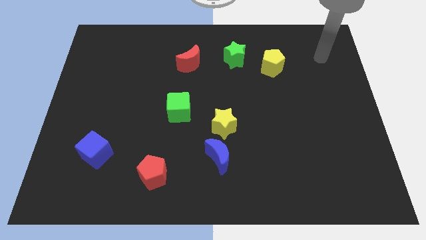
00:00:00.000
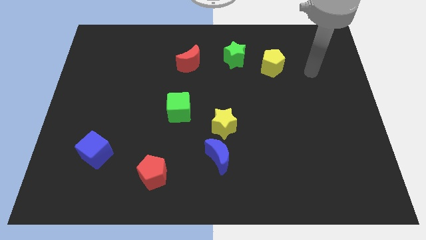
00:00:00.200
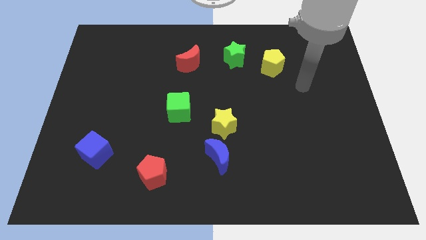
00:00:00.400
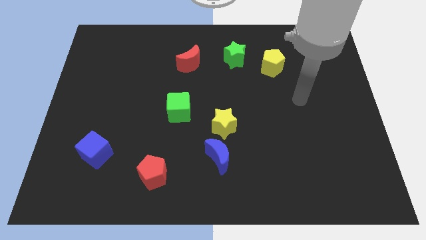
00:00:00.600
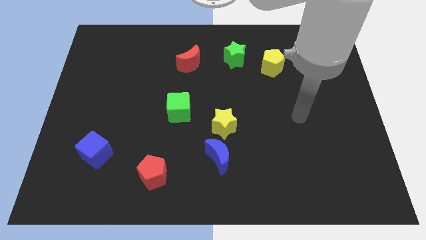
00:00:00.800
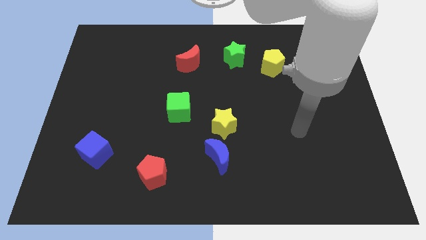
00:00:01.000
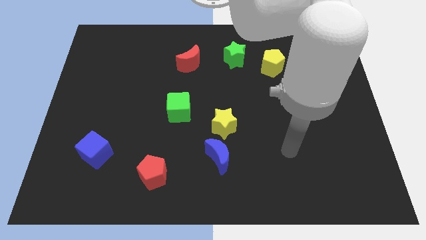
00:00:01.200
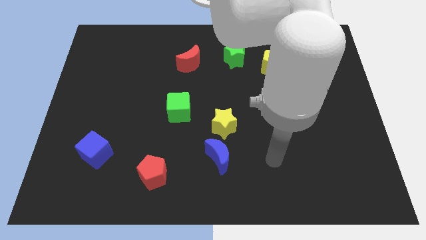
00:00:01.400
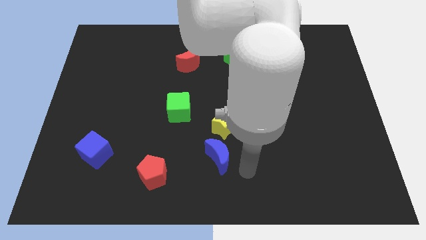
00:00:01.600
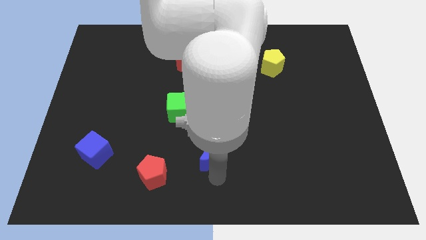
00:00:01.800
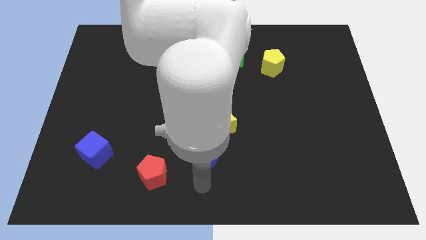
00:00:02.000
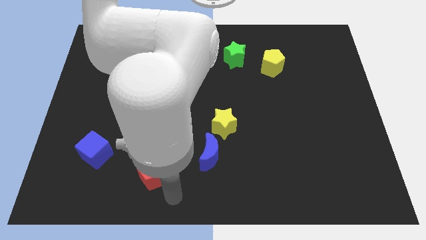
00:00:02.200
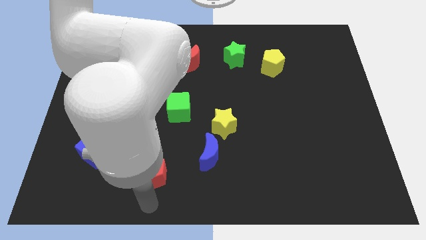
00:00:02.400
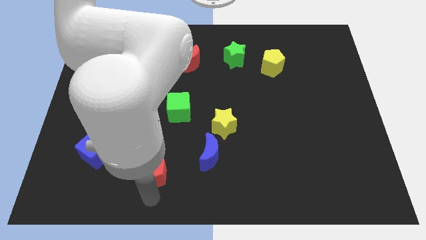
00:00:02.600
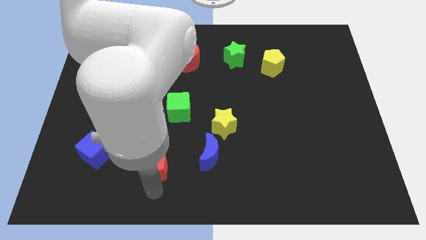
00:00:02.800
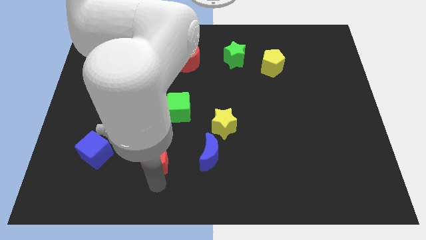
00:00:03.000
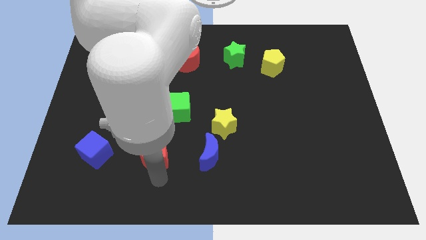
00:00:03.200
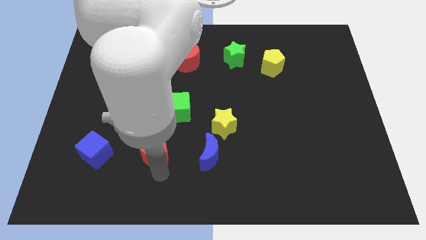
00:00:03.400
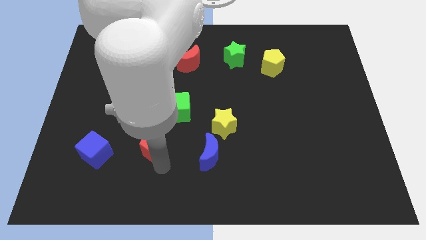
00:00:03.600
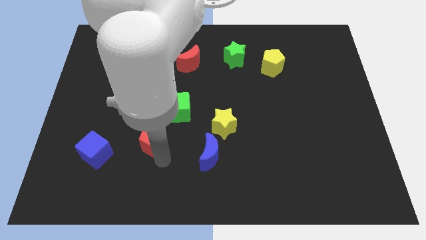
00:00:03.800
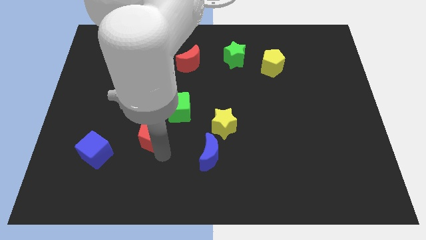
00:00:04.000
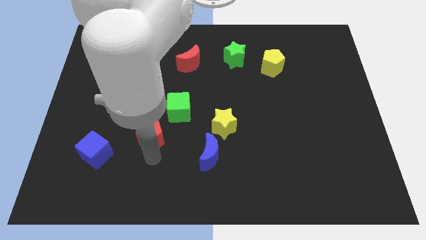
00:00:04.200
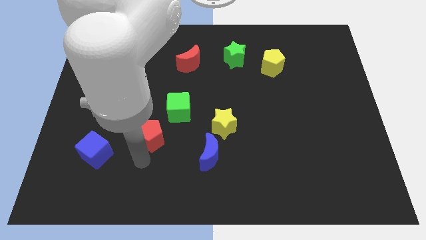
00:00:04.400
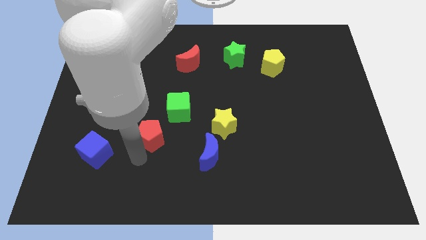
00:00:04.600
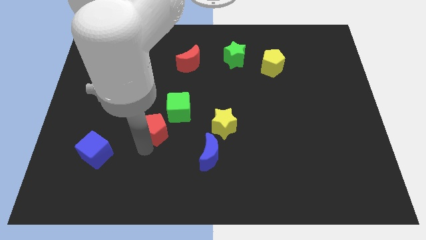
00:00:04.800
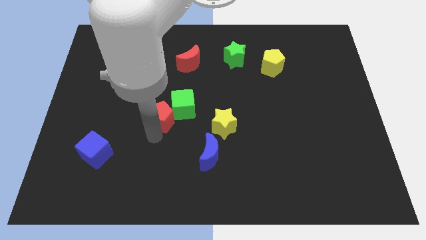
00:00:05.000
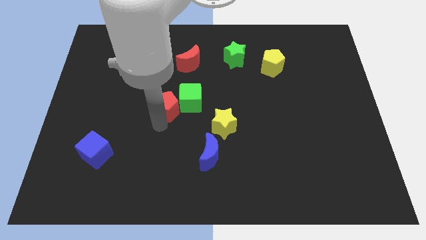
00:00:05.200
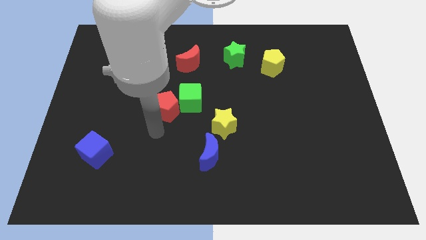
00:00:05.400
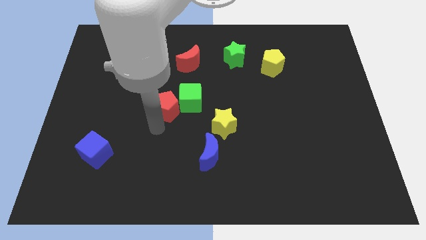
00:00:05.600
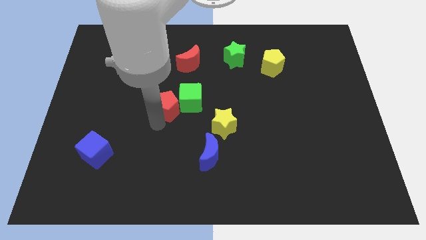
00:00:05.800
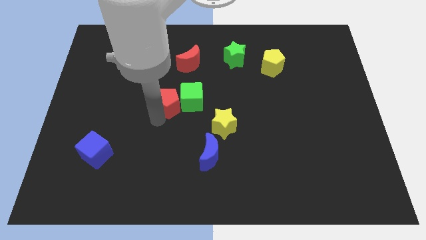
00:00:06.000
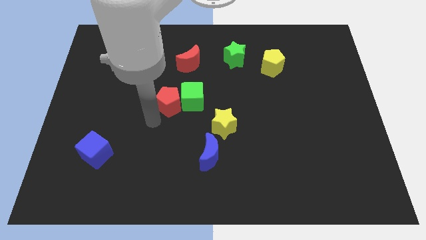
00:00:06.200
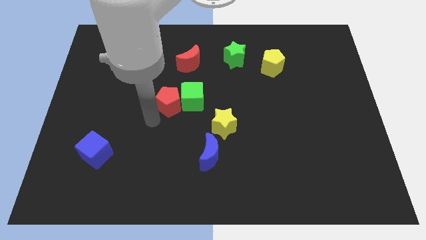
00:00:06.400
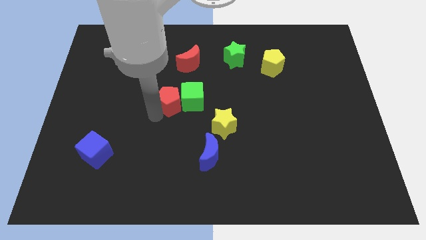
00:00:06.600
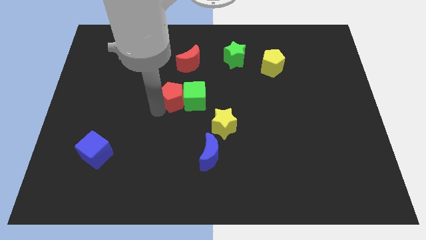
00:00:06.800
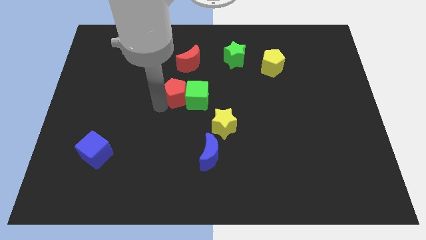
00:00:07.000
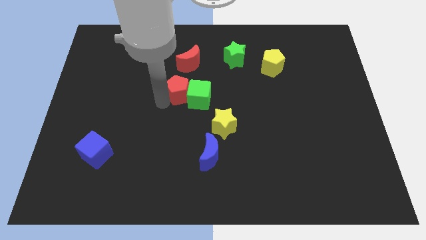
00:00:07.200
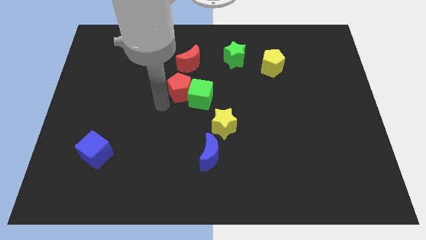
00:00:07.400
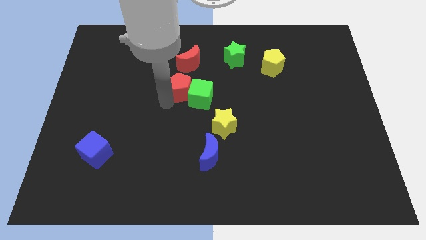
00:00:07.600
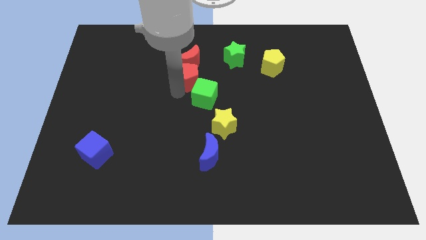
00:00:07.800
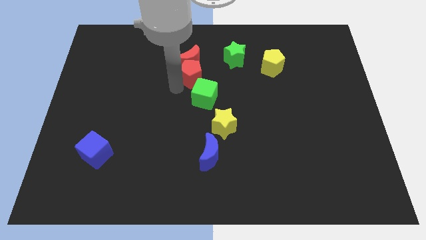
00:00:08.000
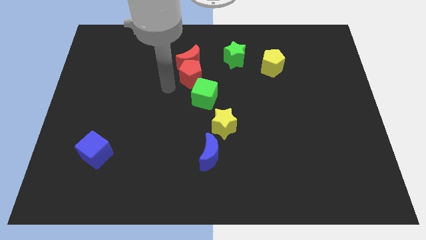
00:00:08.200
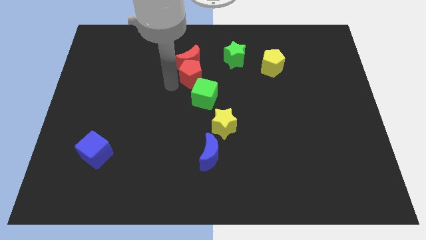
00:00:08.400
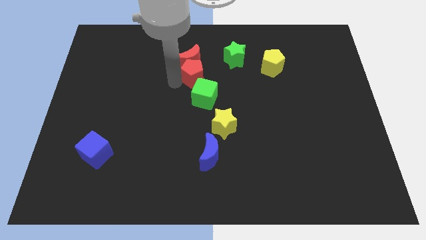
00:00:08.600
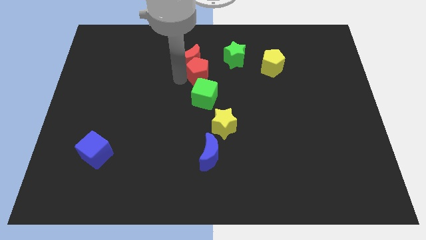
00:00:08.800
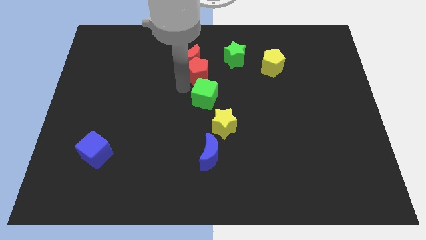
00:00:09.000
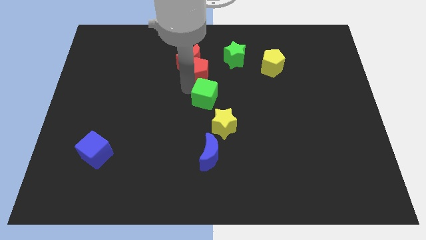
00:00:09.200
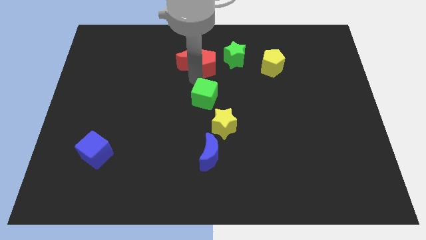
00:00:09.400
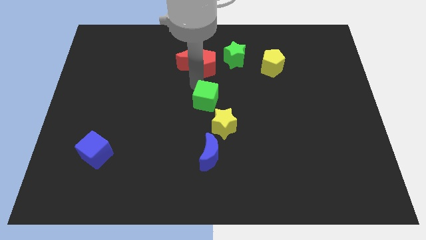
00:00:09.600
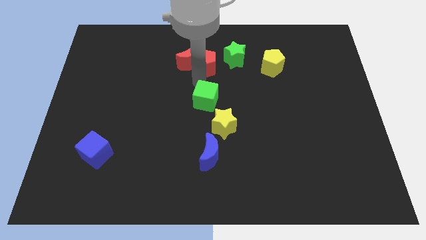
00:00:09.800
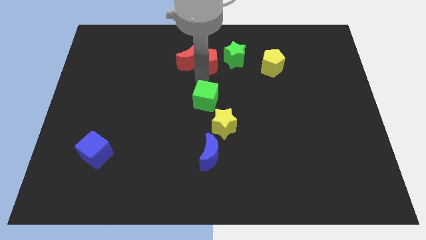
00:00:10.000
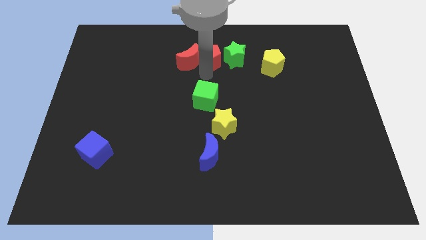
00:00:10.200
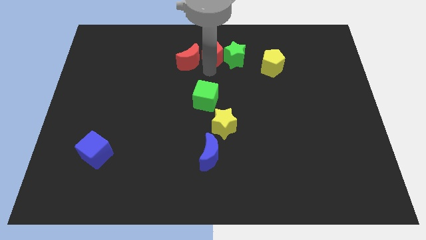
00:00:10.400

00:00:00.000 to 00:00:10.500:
put the red pentagon to the towards your base

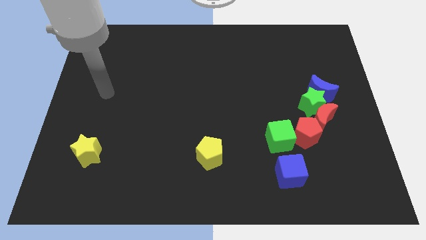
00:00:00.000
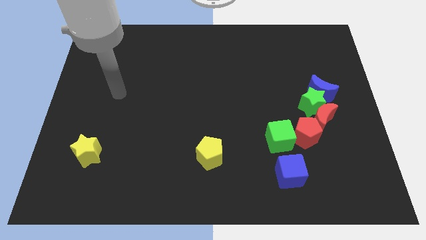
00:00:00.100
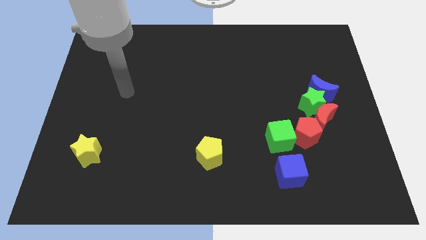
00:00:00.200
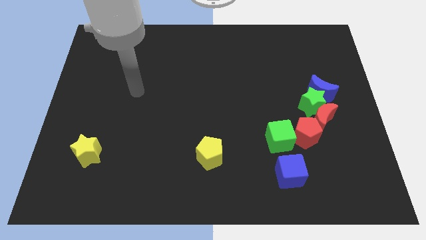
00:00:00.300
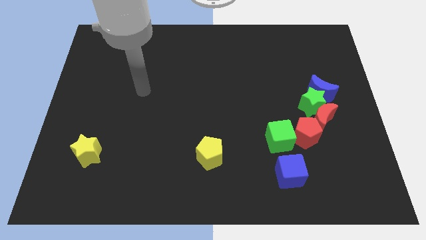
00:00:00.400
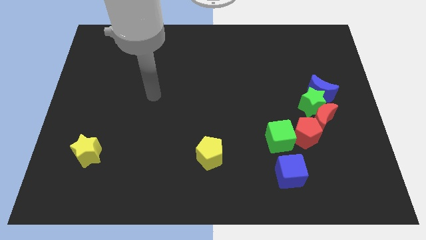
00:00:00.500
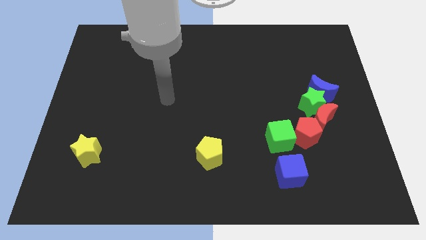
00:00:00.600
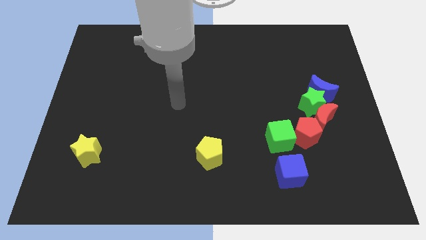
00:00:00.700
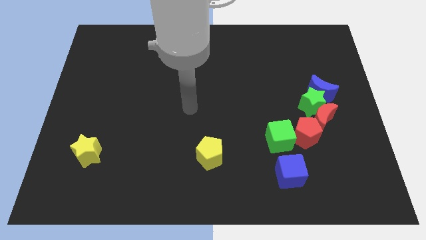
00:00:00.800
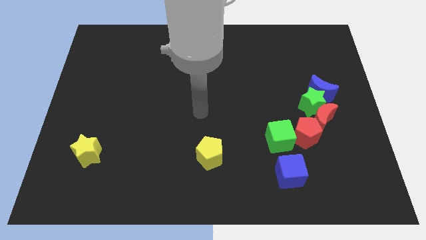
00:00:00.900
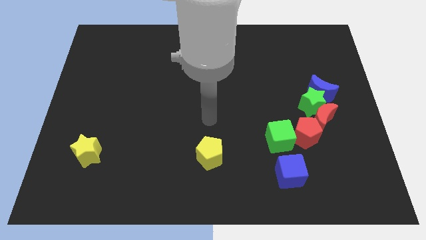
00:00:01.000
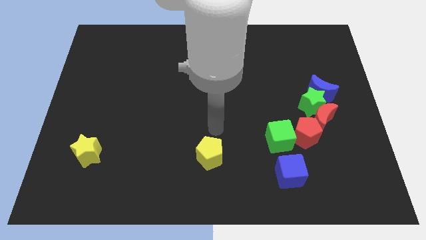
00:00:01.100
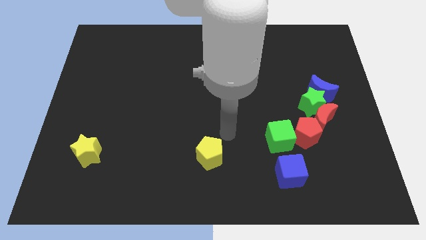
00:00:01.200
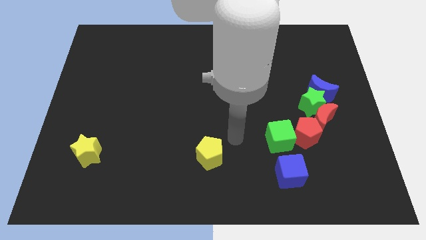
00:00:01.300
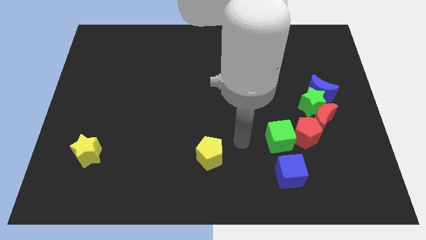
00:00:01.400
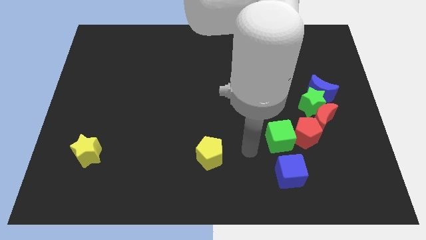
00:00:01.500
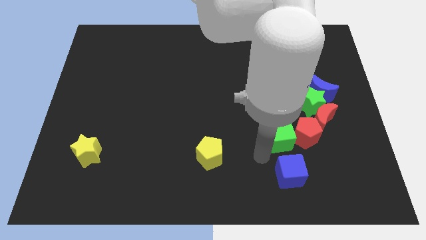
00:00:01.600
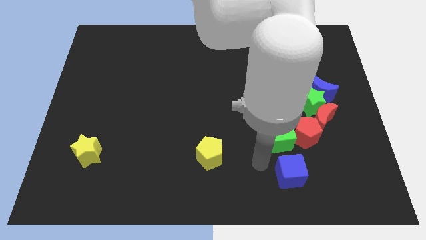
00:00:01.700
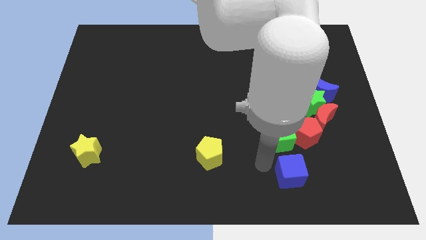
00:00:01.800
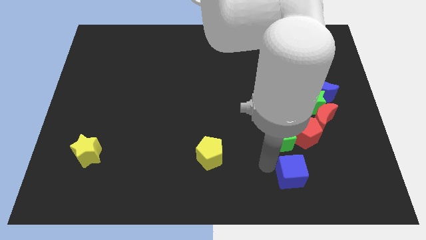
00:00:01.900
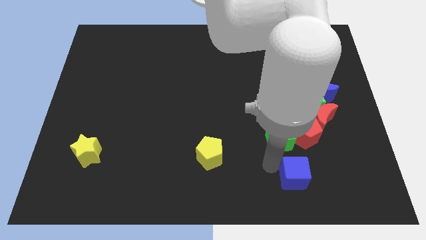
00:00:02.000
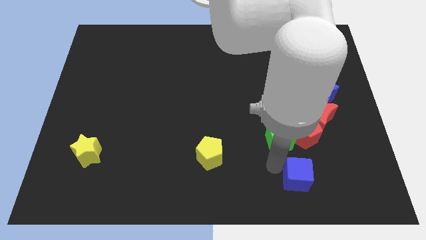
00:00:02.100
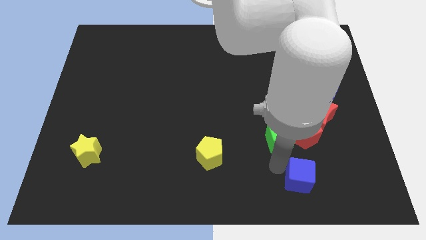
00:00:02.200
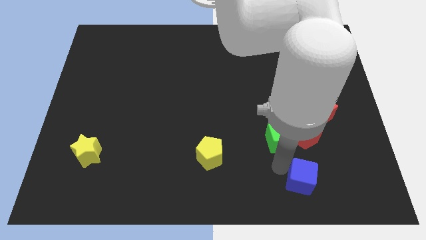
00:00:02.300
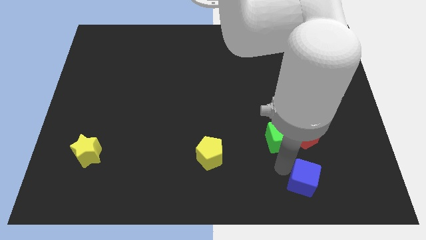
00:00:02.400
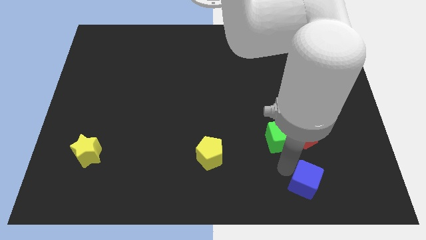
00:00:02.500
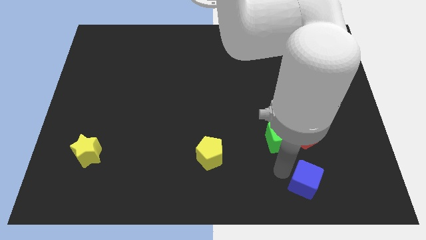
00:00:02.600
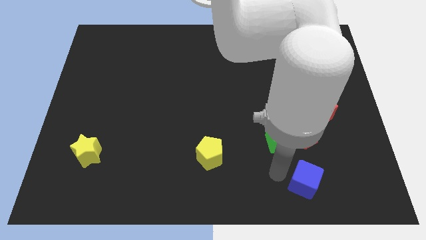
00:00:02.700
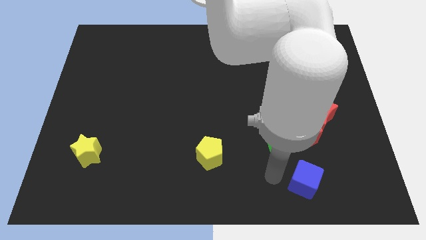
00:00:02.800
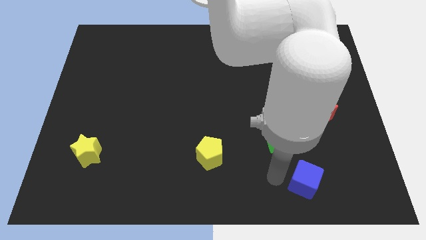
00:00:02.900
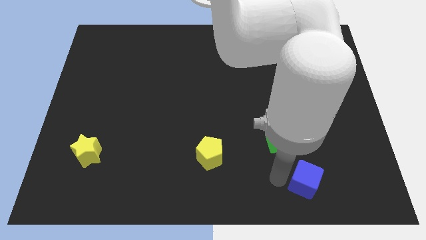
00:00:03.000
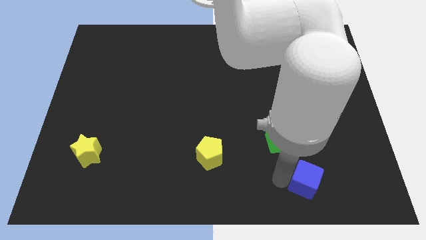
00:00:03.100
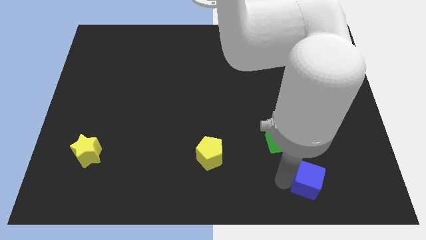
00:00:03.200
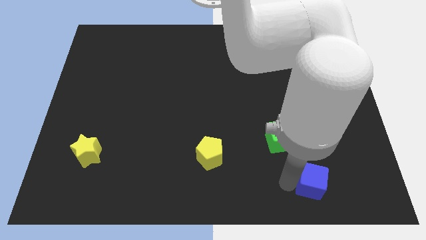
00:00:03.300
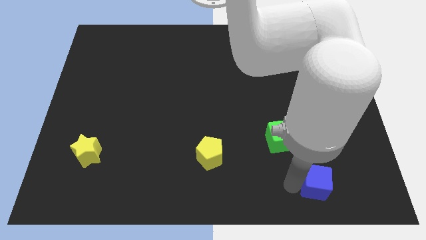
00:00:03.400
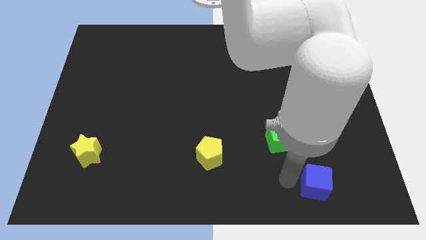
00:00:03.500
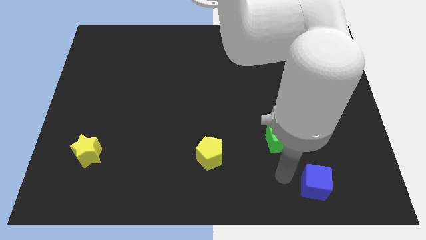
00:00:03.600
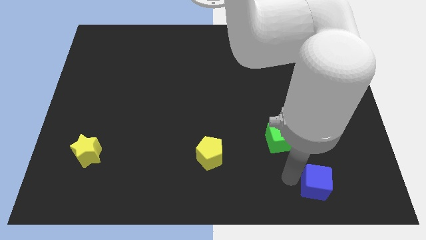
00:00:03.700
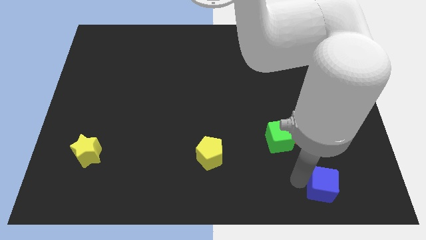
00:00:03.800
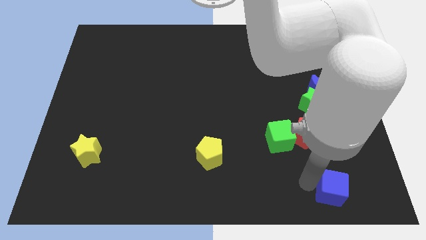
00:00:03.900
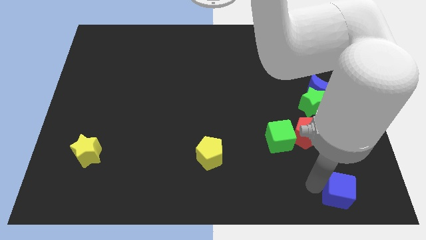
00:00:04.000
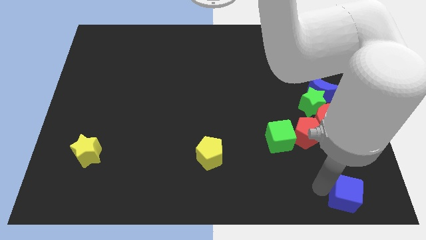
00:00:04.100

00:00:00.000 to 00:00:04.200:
push the blue cube to the bottom right corner
